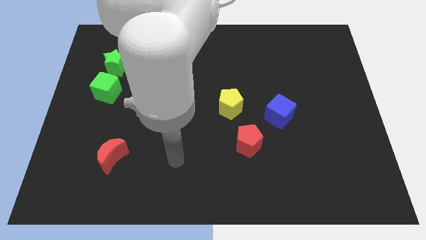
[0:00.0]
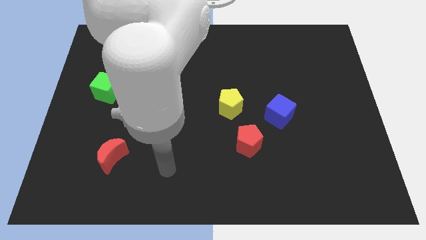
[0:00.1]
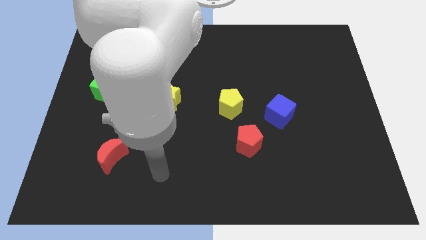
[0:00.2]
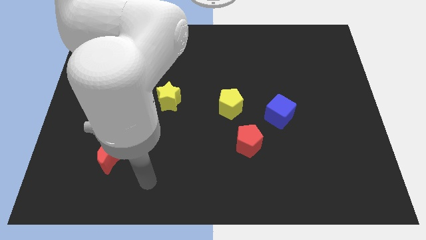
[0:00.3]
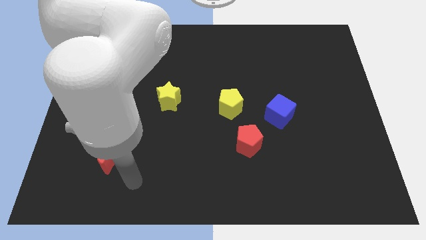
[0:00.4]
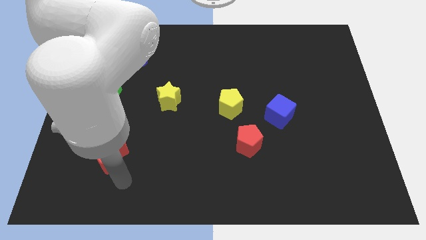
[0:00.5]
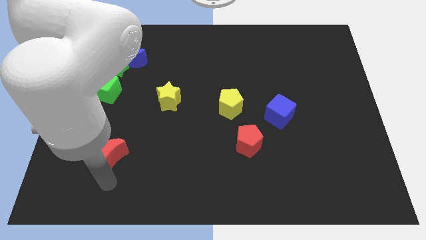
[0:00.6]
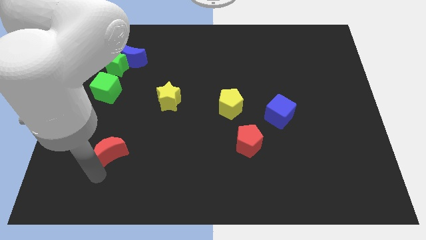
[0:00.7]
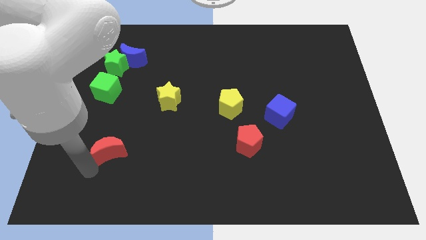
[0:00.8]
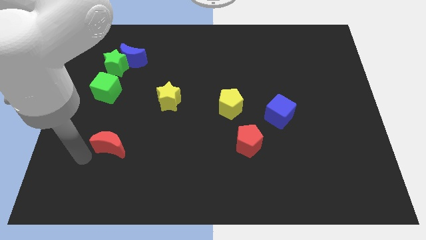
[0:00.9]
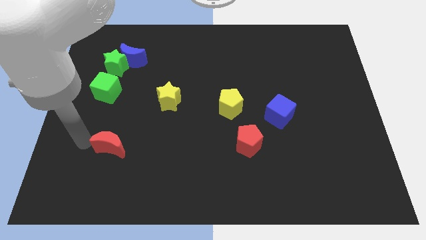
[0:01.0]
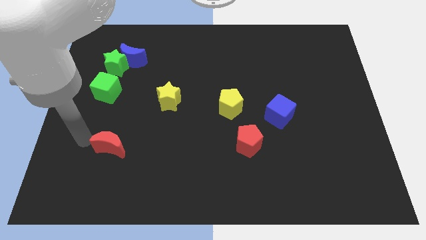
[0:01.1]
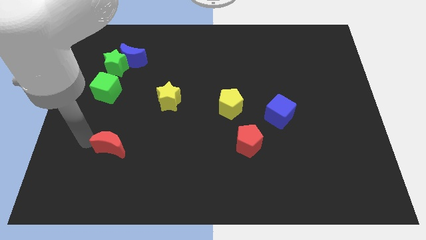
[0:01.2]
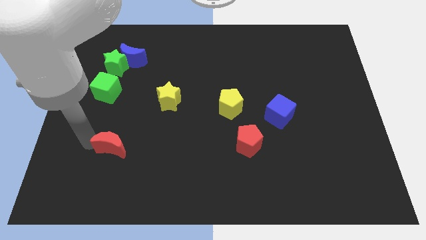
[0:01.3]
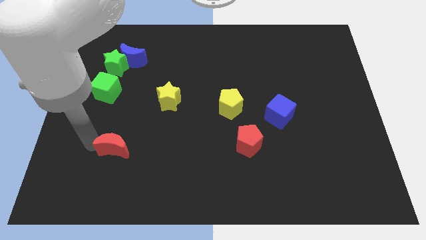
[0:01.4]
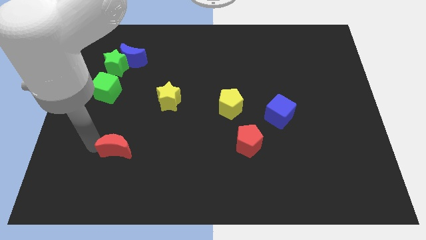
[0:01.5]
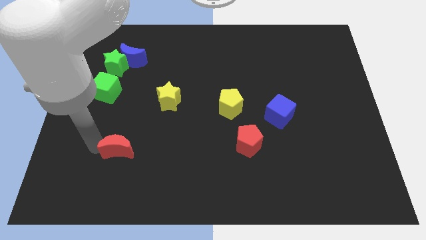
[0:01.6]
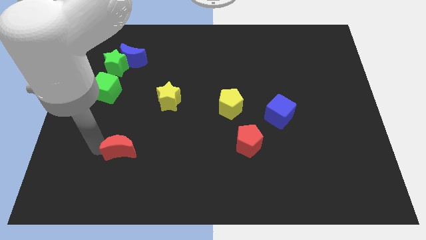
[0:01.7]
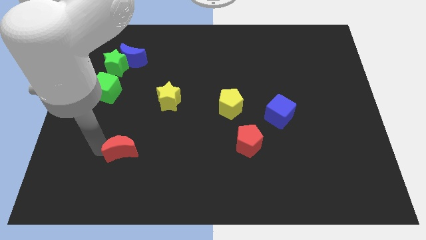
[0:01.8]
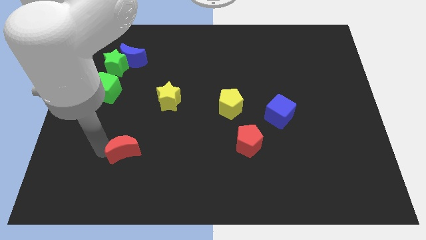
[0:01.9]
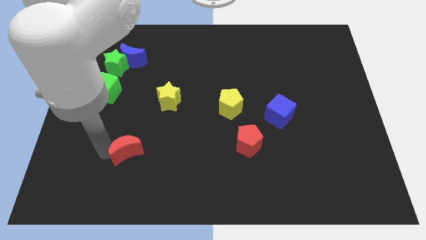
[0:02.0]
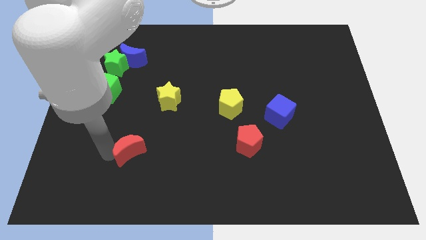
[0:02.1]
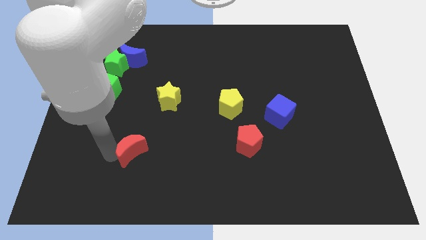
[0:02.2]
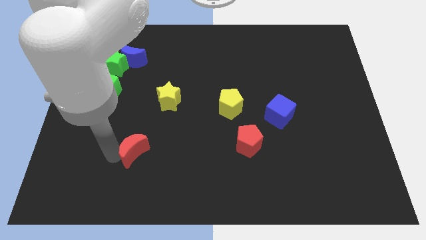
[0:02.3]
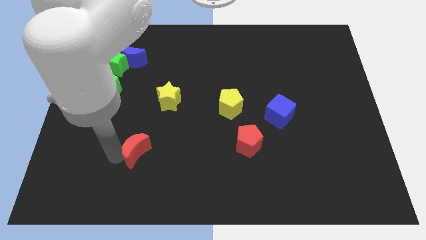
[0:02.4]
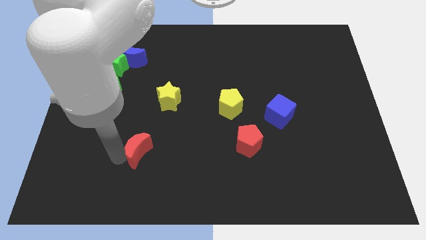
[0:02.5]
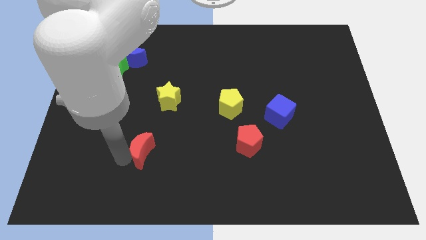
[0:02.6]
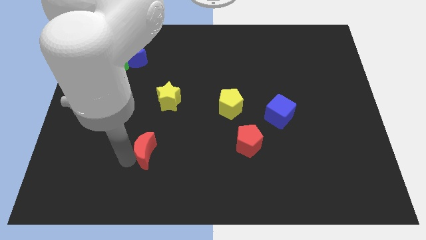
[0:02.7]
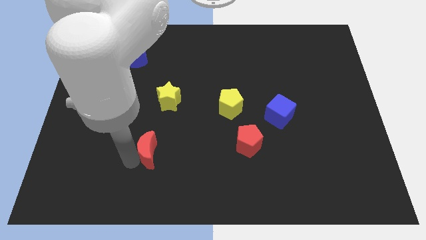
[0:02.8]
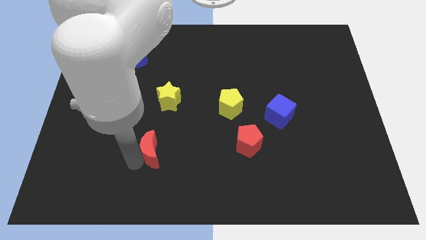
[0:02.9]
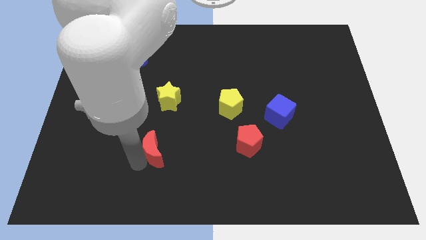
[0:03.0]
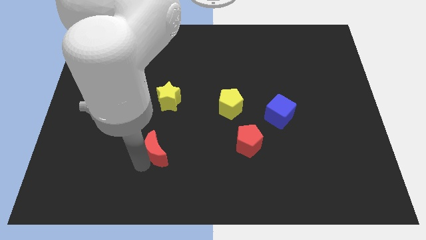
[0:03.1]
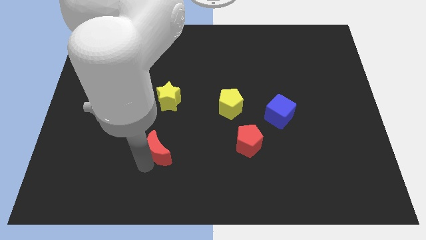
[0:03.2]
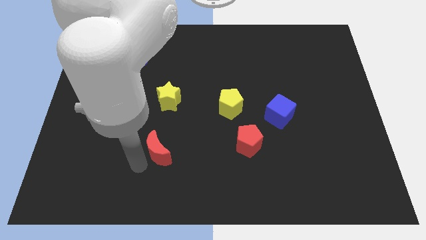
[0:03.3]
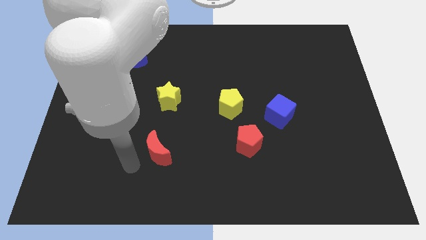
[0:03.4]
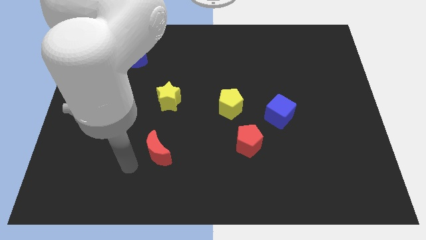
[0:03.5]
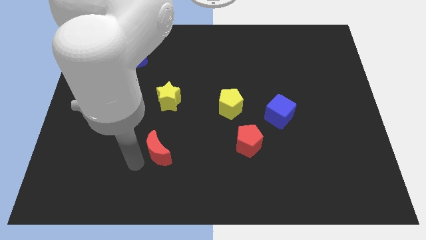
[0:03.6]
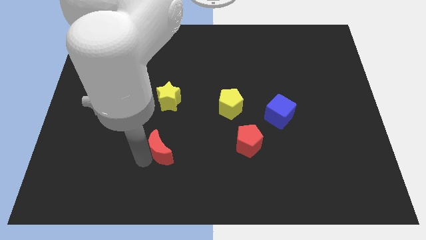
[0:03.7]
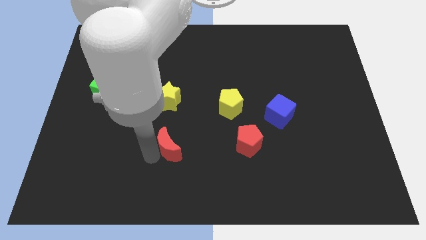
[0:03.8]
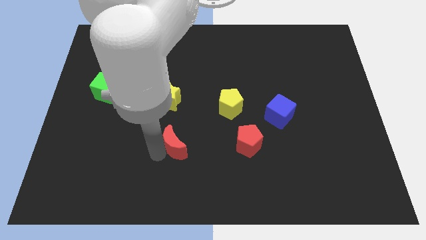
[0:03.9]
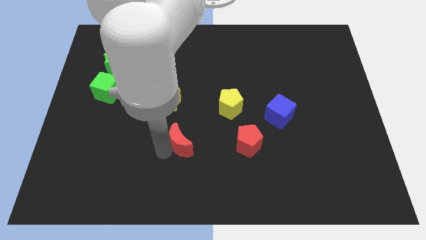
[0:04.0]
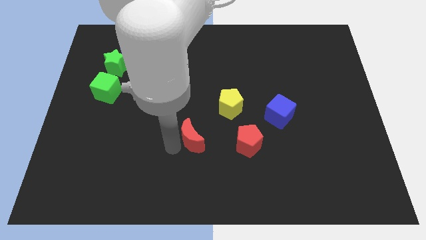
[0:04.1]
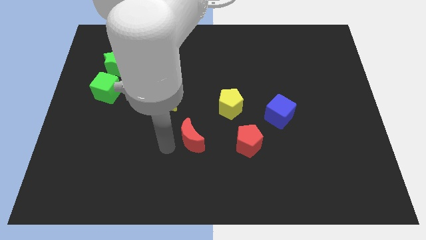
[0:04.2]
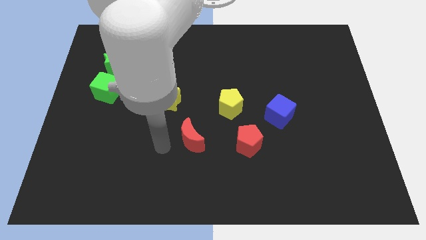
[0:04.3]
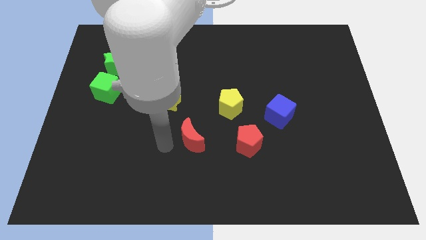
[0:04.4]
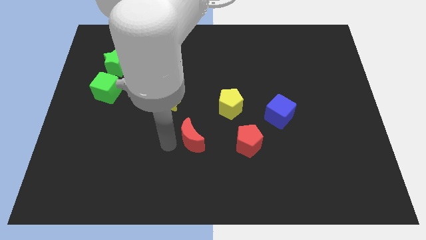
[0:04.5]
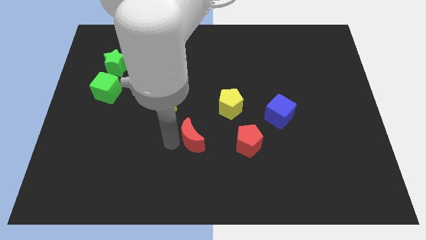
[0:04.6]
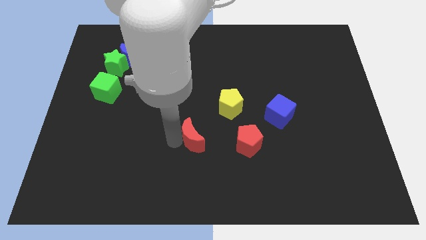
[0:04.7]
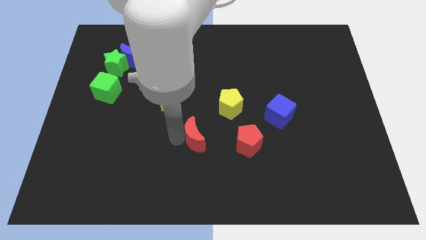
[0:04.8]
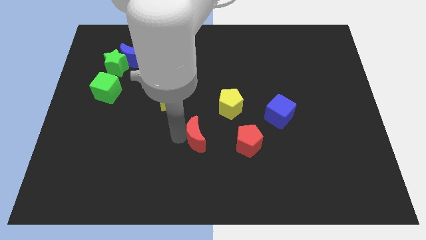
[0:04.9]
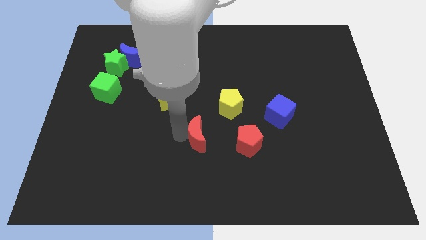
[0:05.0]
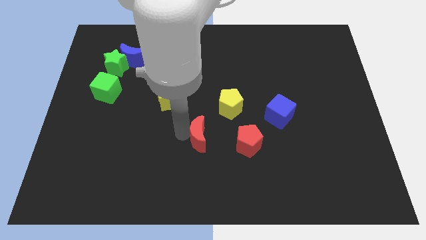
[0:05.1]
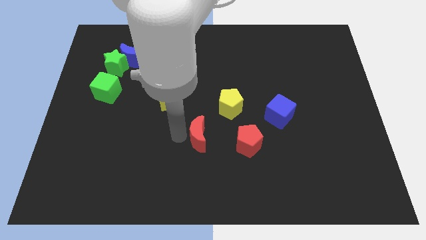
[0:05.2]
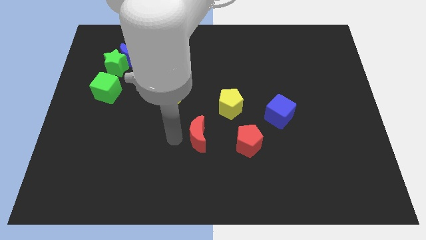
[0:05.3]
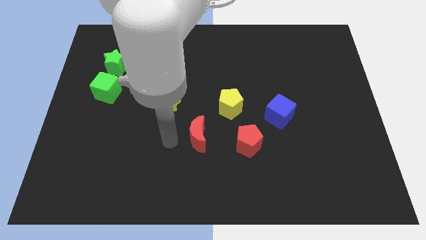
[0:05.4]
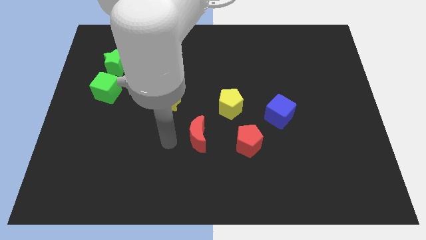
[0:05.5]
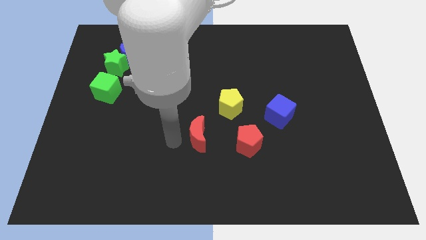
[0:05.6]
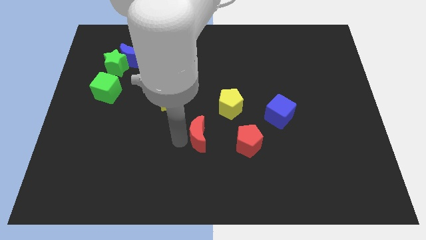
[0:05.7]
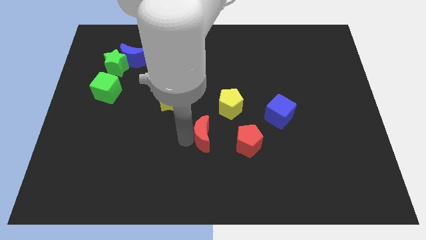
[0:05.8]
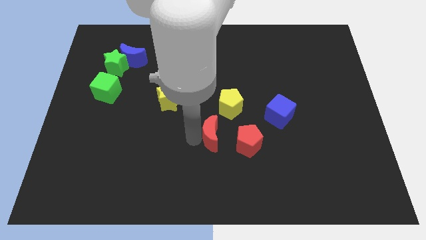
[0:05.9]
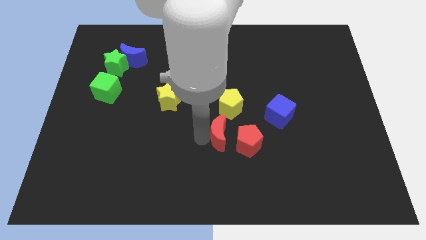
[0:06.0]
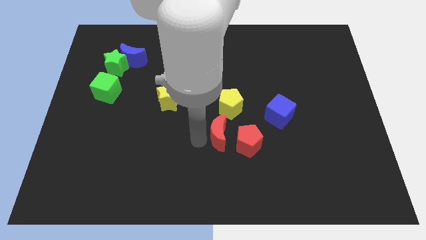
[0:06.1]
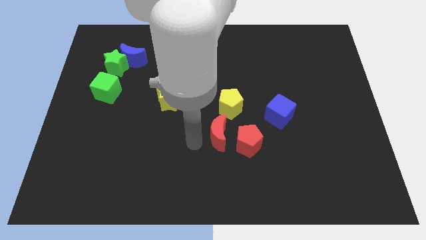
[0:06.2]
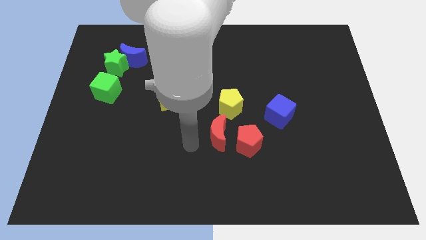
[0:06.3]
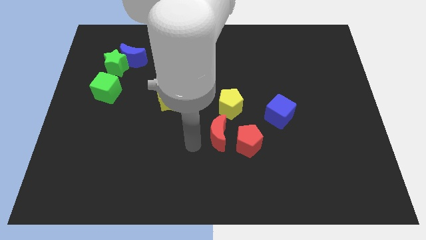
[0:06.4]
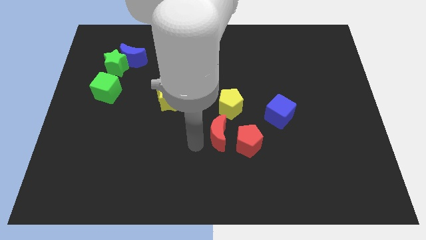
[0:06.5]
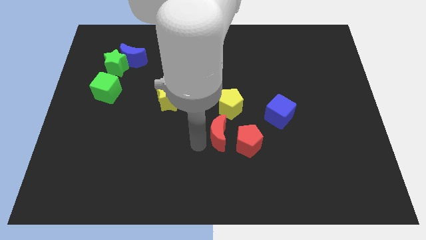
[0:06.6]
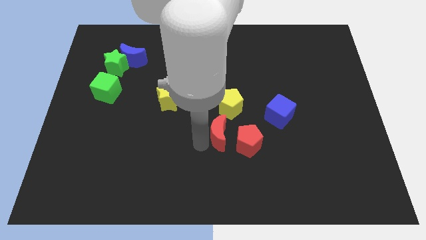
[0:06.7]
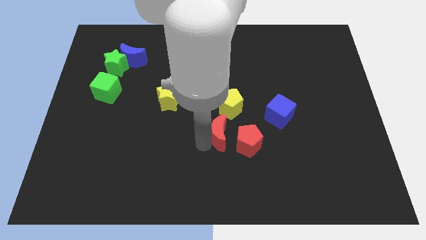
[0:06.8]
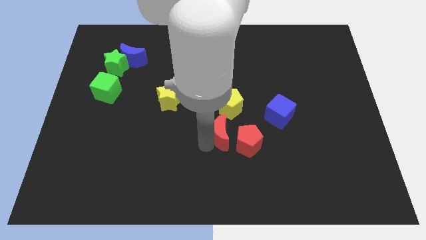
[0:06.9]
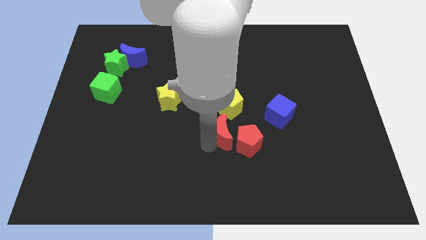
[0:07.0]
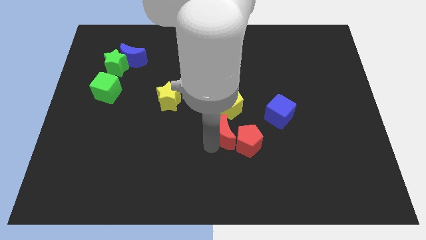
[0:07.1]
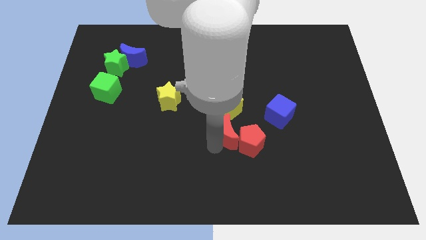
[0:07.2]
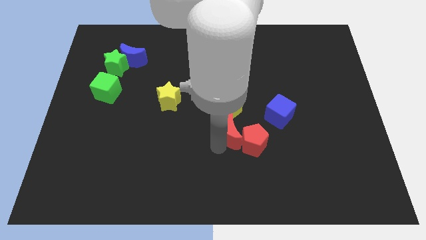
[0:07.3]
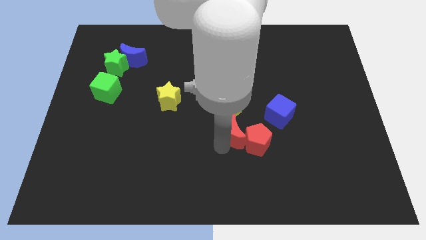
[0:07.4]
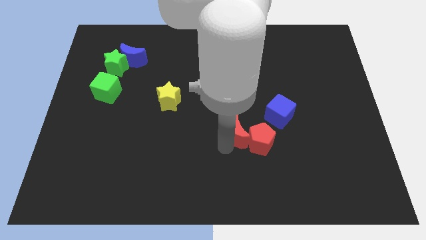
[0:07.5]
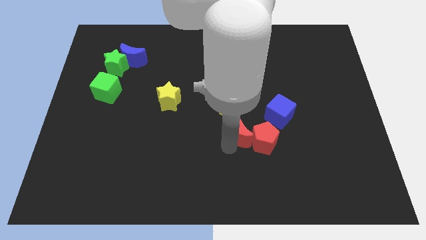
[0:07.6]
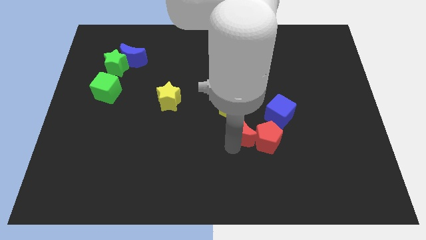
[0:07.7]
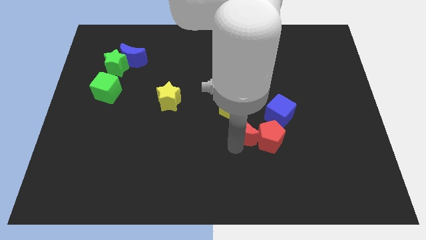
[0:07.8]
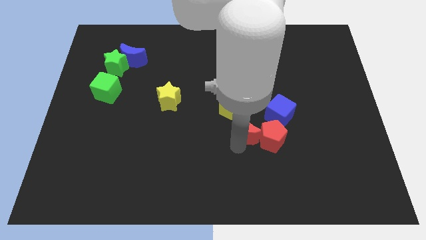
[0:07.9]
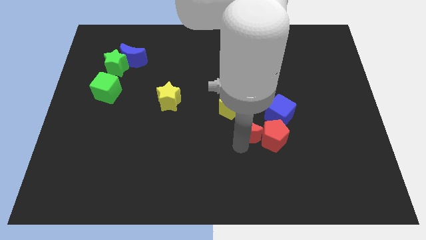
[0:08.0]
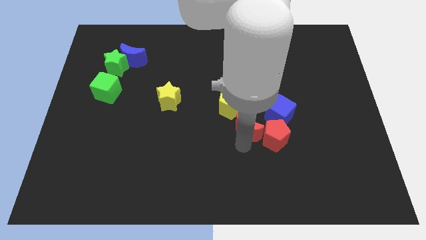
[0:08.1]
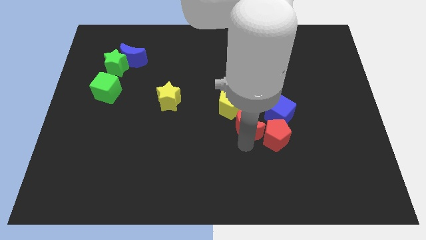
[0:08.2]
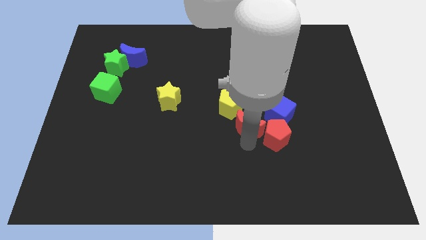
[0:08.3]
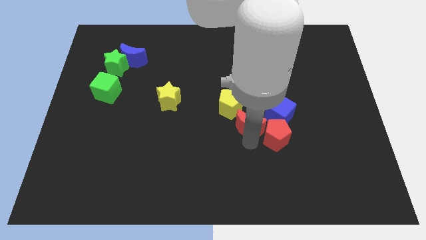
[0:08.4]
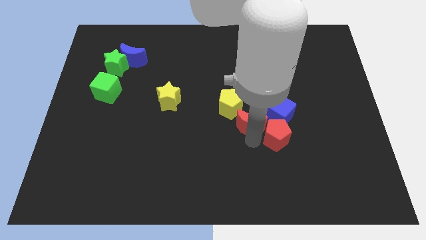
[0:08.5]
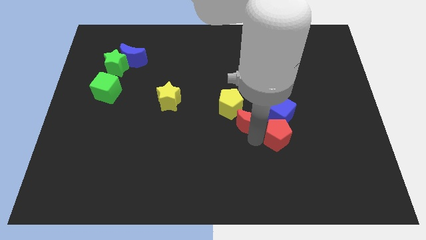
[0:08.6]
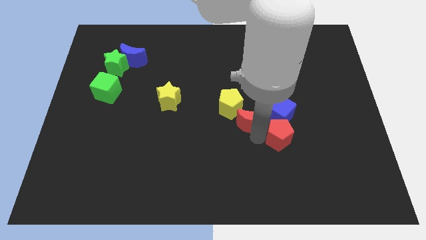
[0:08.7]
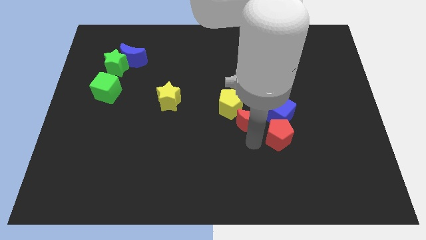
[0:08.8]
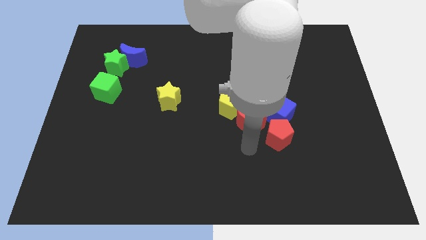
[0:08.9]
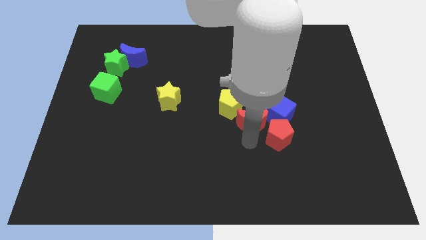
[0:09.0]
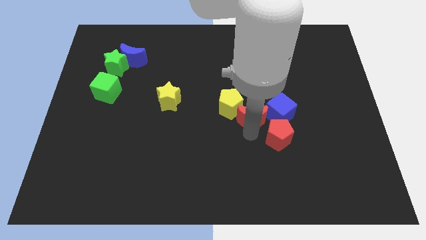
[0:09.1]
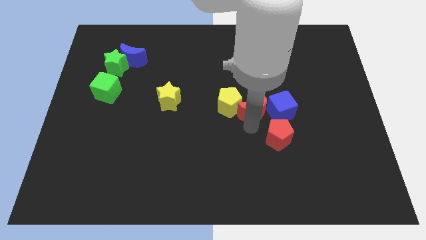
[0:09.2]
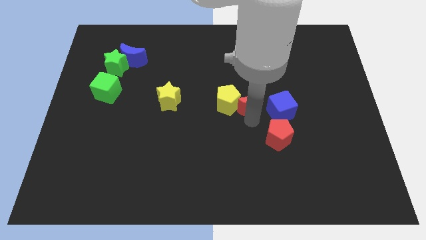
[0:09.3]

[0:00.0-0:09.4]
slide the red moon to the top left of the blue cube
